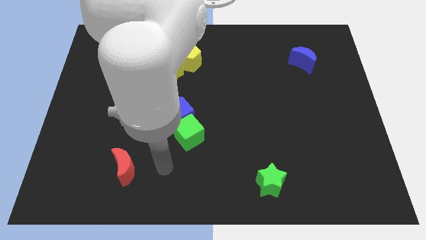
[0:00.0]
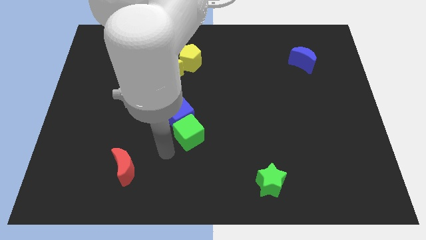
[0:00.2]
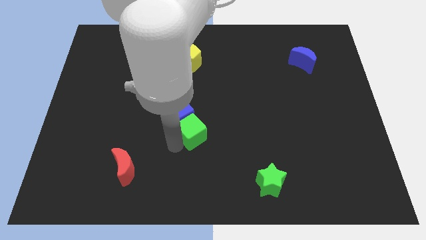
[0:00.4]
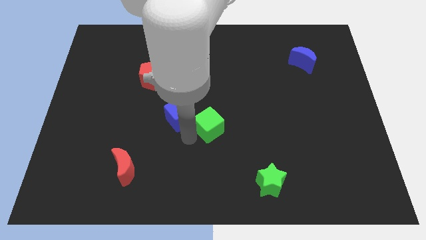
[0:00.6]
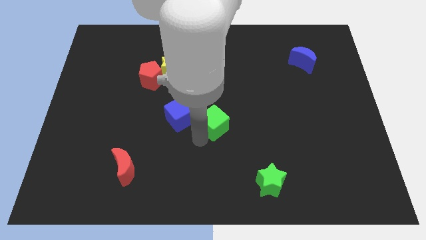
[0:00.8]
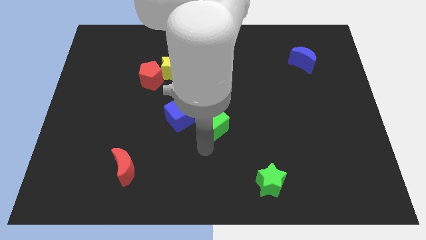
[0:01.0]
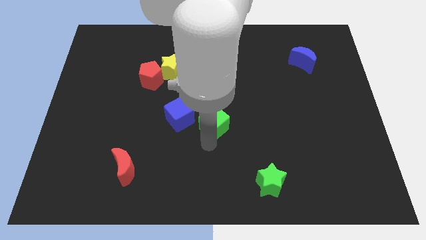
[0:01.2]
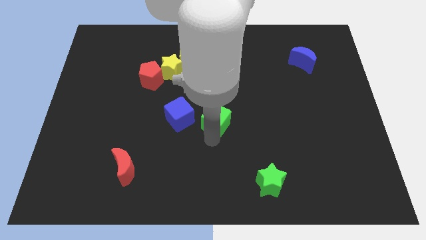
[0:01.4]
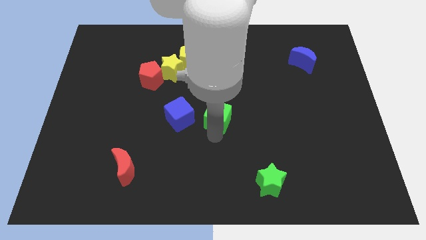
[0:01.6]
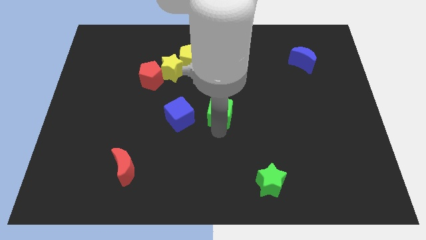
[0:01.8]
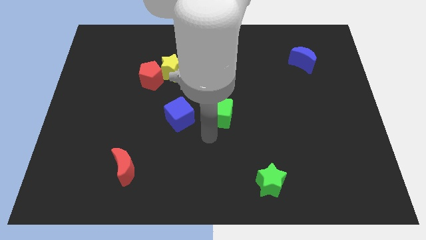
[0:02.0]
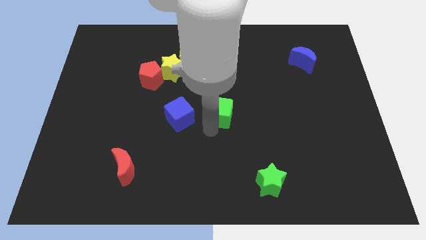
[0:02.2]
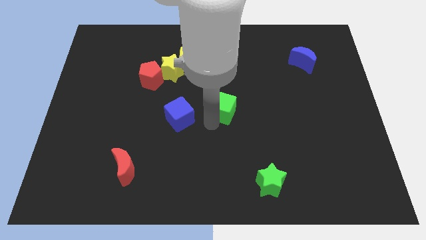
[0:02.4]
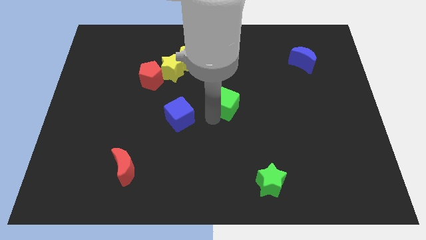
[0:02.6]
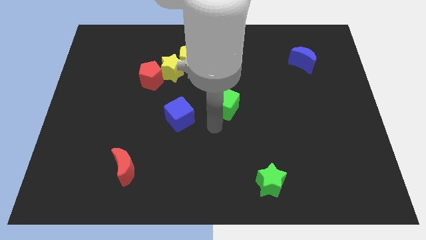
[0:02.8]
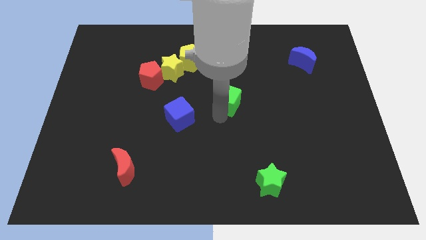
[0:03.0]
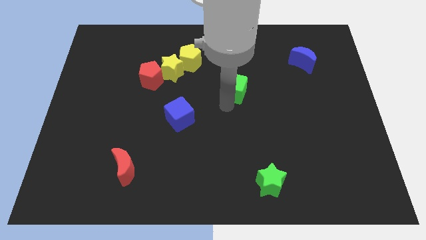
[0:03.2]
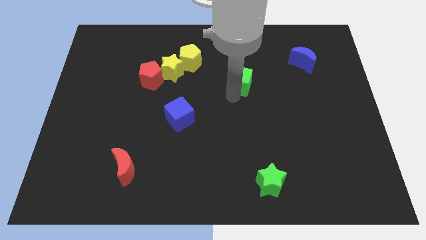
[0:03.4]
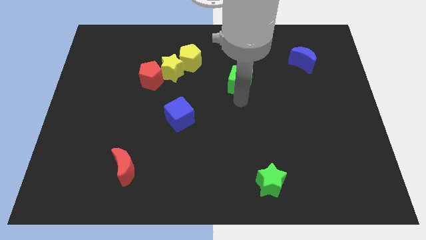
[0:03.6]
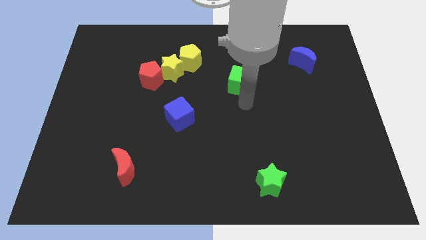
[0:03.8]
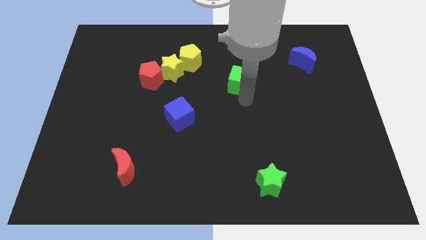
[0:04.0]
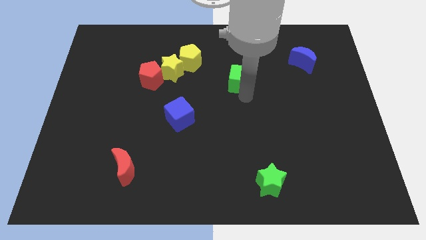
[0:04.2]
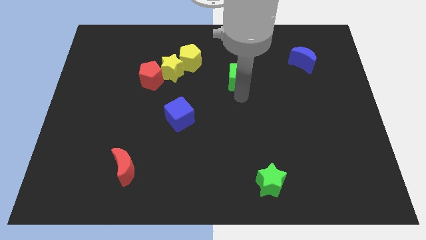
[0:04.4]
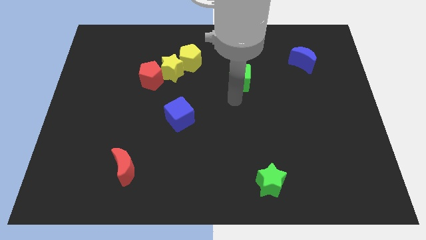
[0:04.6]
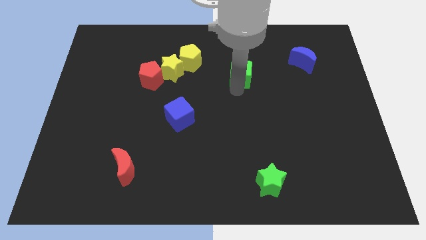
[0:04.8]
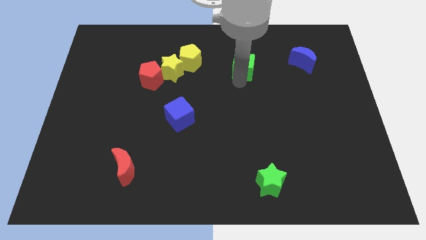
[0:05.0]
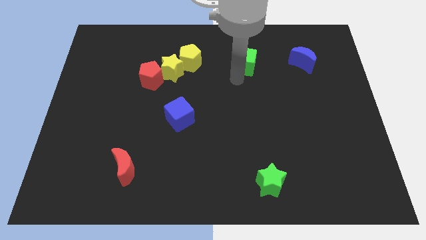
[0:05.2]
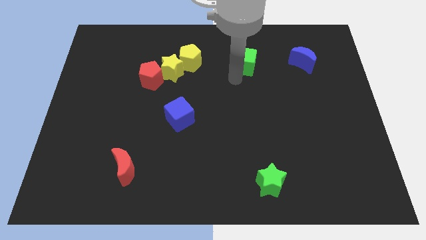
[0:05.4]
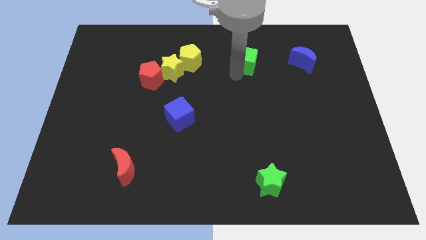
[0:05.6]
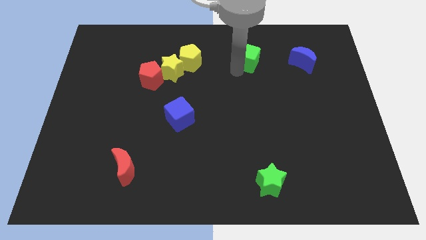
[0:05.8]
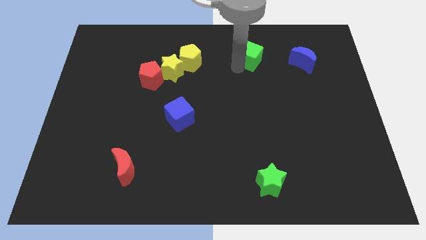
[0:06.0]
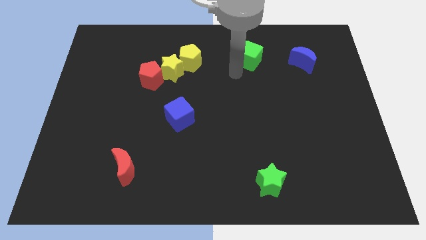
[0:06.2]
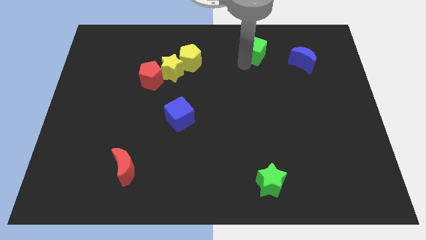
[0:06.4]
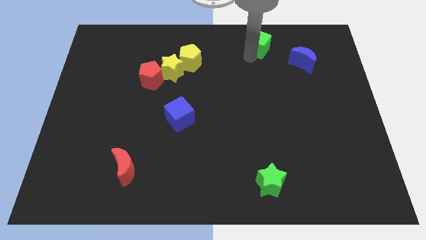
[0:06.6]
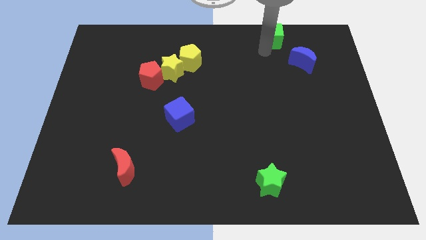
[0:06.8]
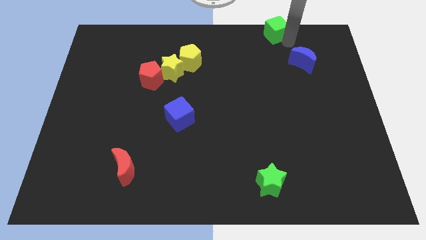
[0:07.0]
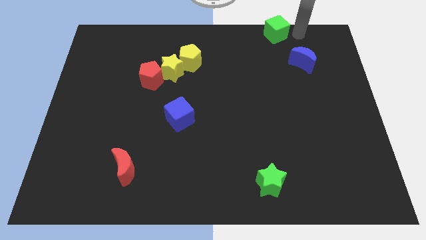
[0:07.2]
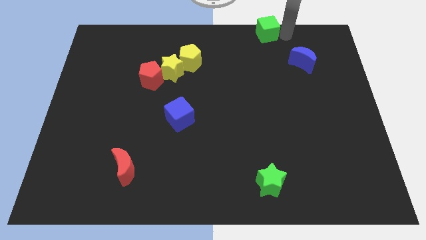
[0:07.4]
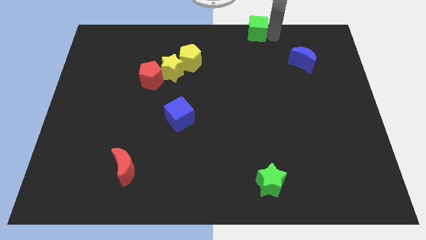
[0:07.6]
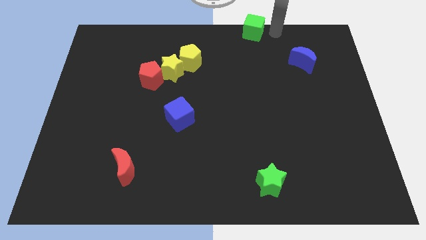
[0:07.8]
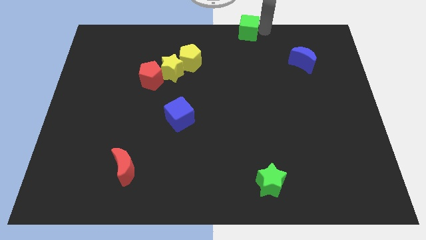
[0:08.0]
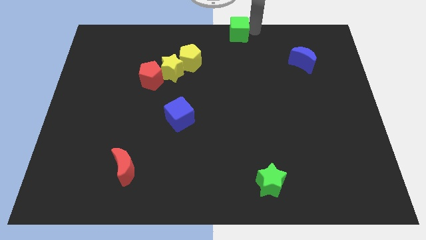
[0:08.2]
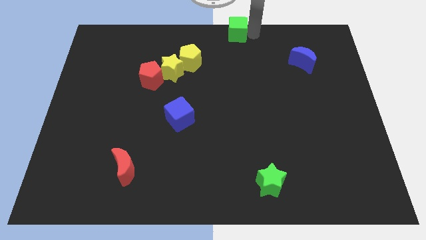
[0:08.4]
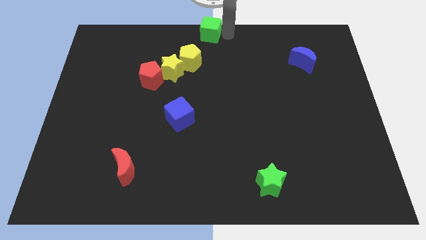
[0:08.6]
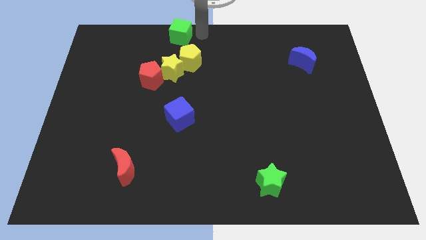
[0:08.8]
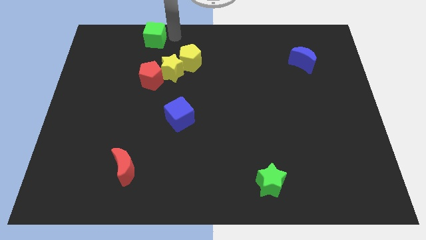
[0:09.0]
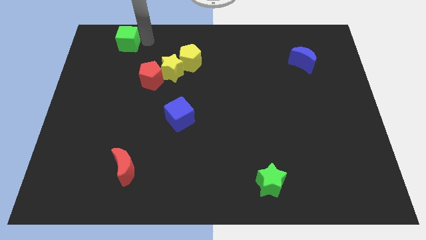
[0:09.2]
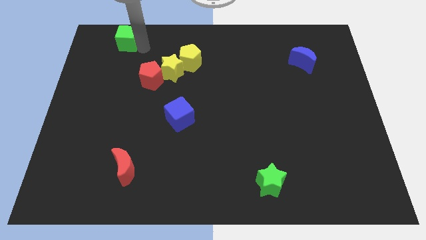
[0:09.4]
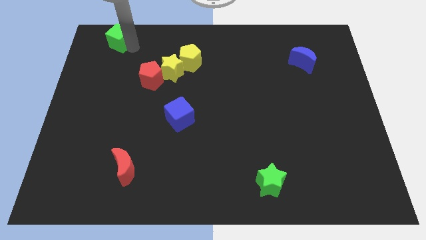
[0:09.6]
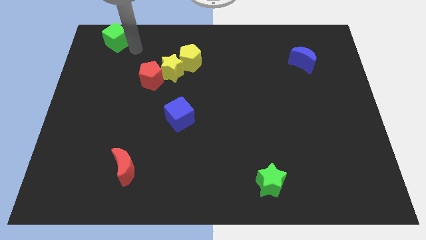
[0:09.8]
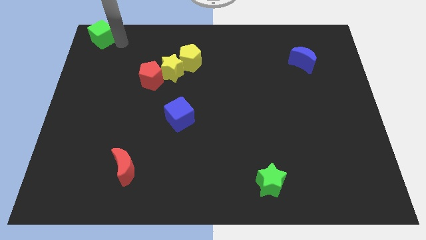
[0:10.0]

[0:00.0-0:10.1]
put the green cube to the top left
